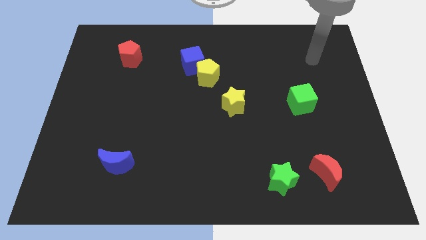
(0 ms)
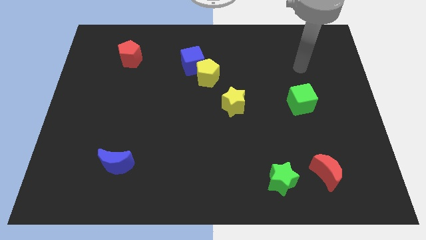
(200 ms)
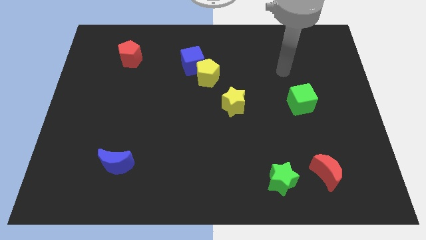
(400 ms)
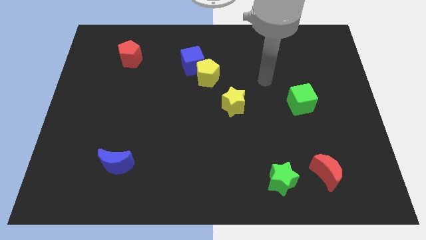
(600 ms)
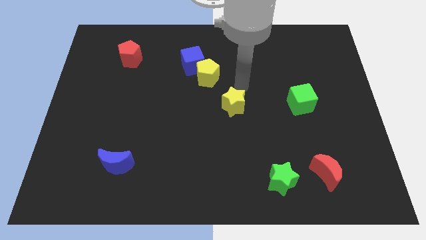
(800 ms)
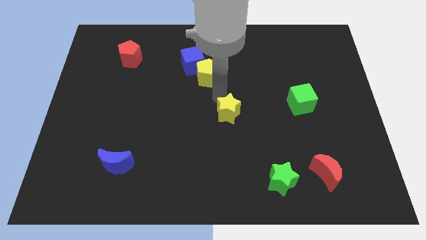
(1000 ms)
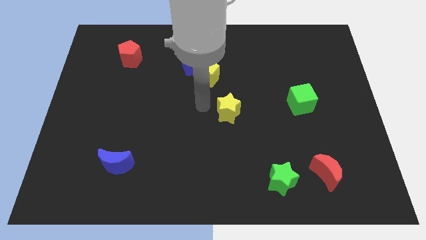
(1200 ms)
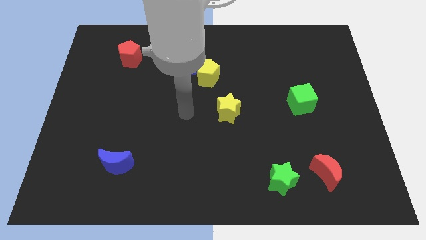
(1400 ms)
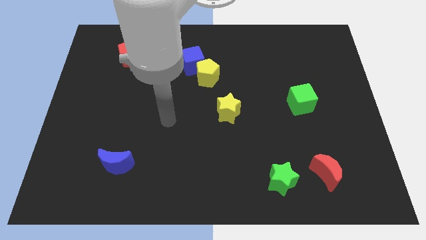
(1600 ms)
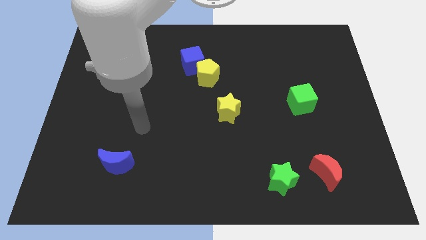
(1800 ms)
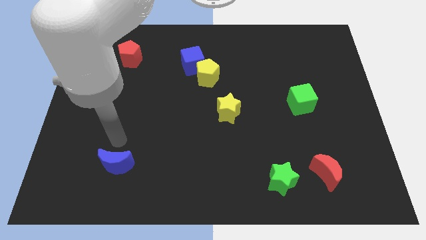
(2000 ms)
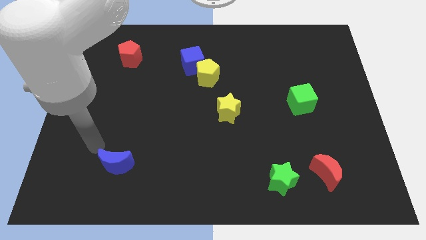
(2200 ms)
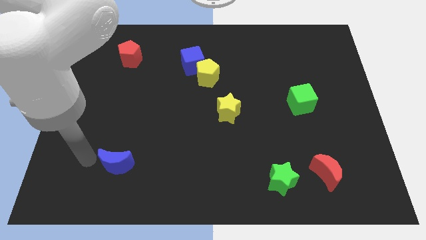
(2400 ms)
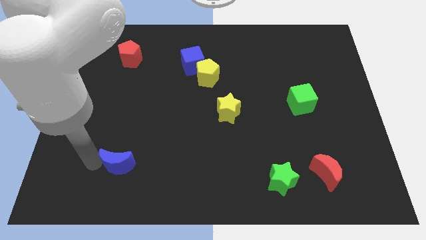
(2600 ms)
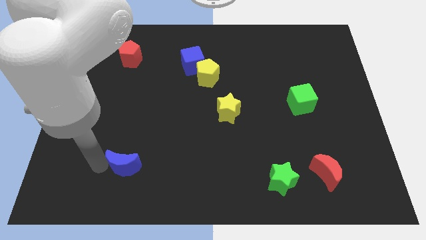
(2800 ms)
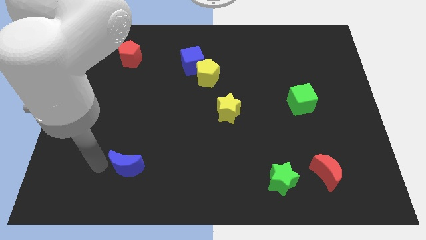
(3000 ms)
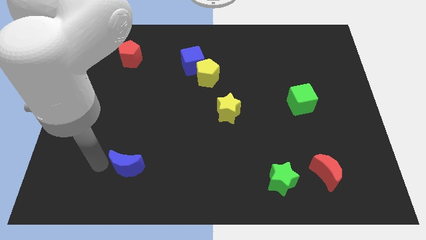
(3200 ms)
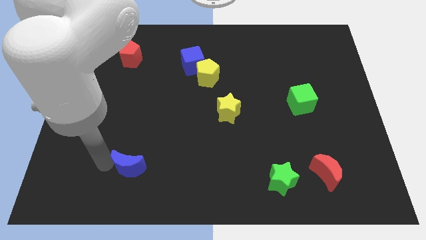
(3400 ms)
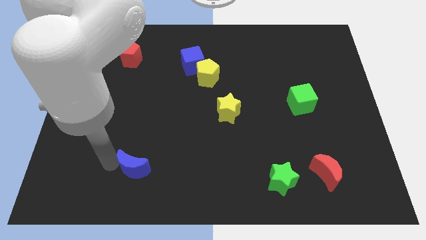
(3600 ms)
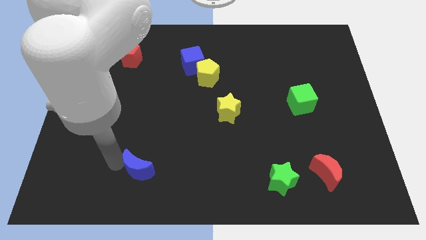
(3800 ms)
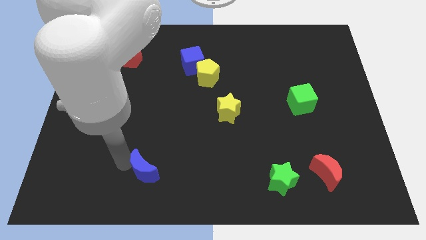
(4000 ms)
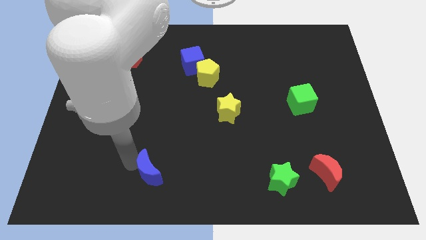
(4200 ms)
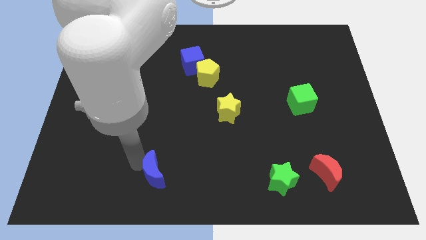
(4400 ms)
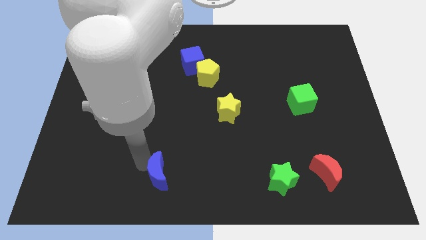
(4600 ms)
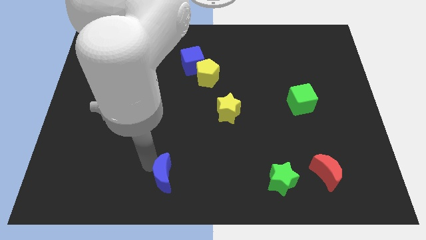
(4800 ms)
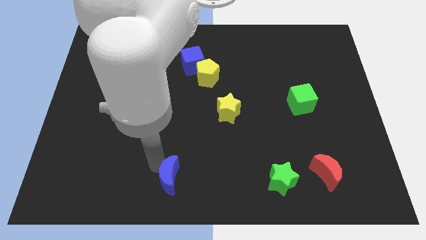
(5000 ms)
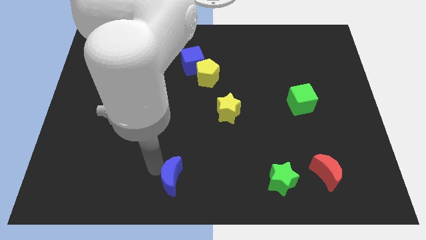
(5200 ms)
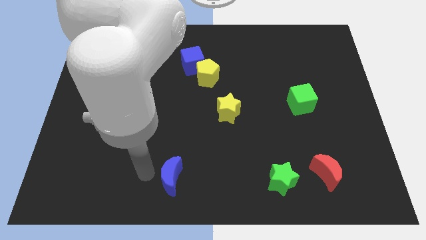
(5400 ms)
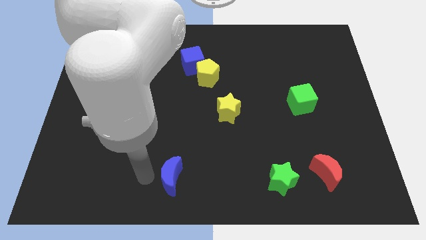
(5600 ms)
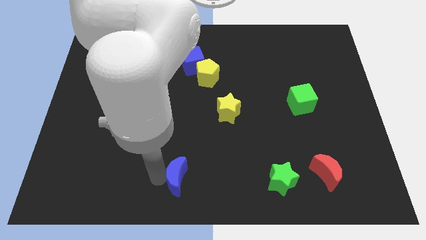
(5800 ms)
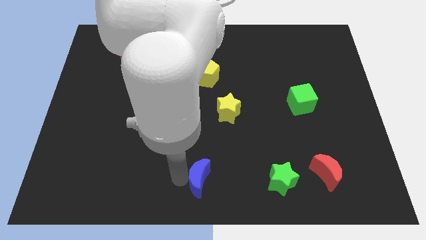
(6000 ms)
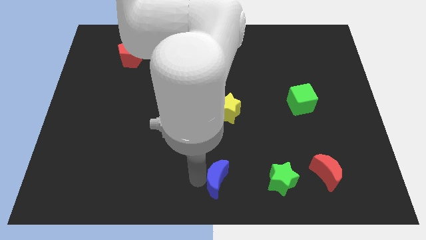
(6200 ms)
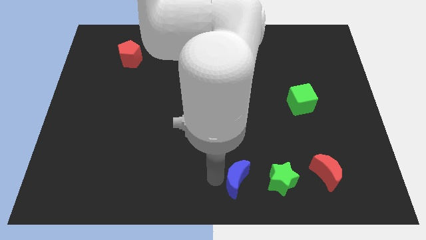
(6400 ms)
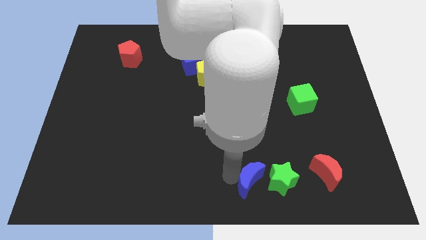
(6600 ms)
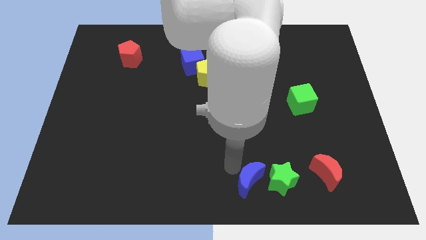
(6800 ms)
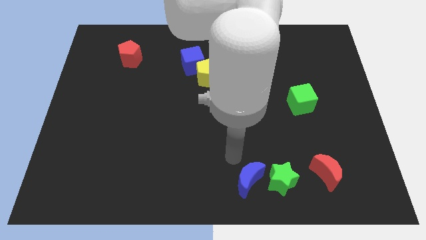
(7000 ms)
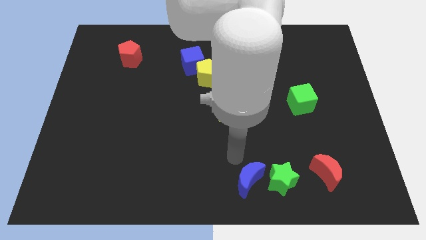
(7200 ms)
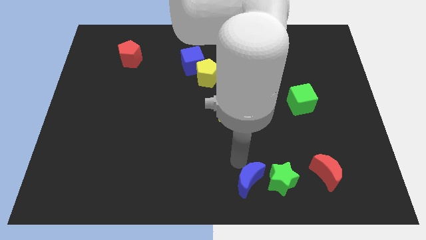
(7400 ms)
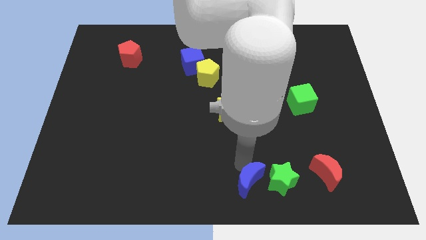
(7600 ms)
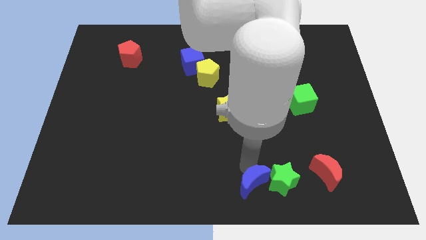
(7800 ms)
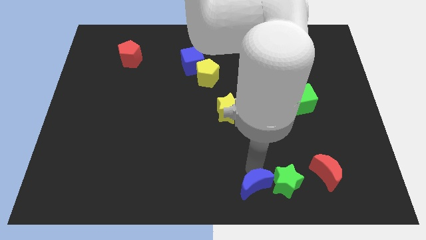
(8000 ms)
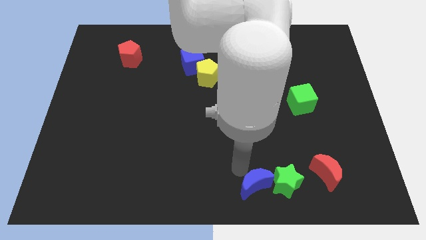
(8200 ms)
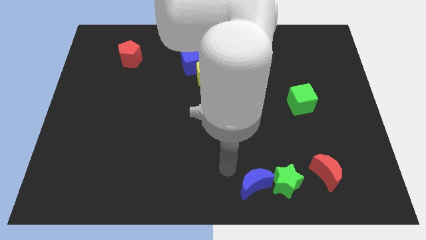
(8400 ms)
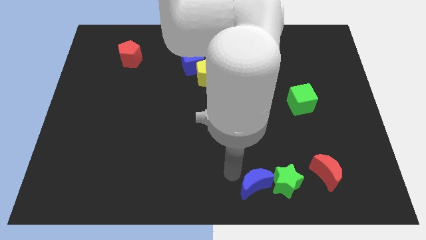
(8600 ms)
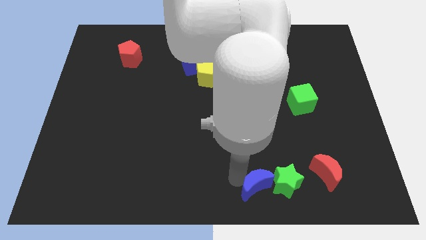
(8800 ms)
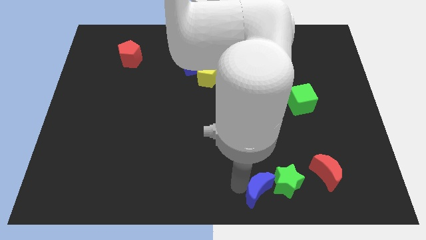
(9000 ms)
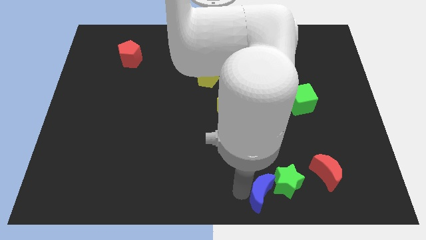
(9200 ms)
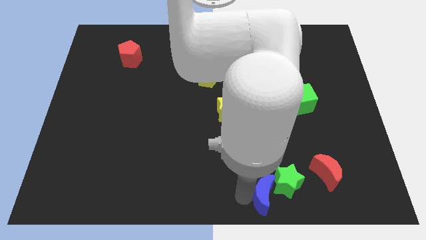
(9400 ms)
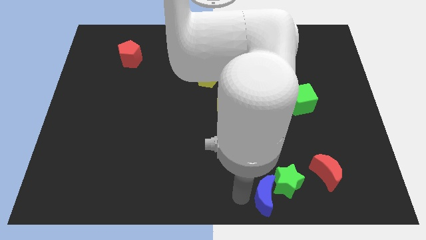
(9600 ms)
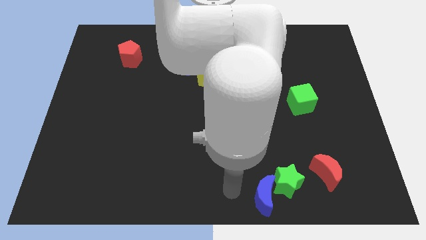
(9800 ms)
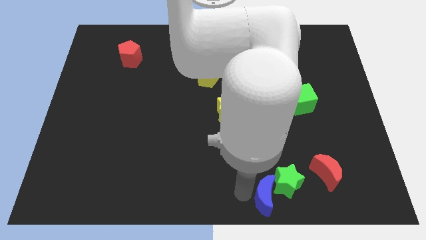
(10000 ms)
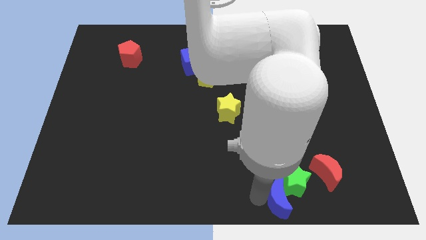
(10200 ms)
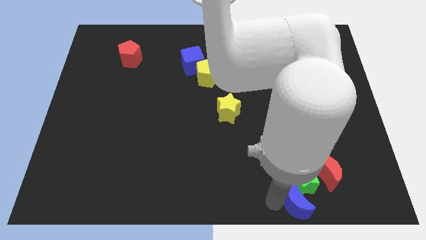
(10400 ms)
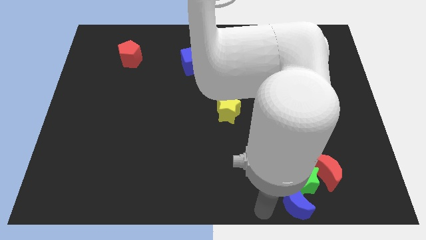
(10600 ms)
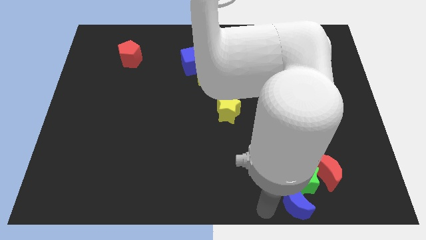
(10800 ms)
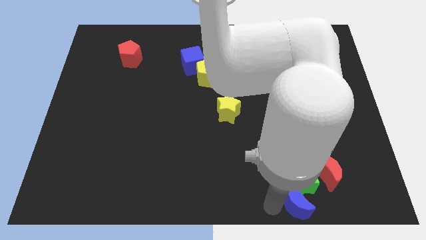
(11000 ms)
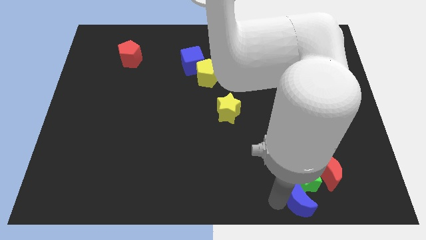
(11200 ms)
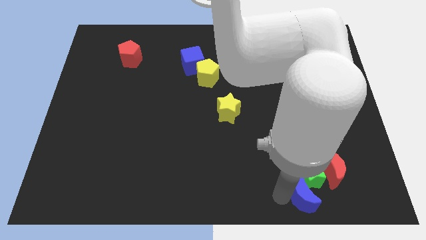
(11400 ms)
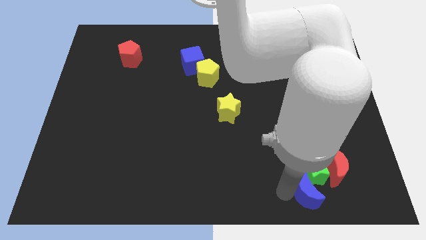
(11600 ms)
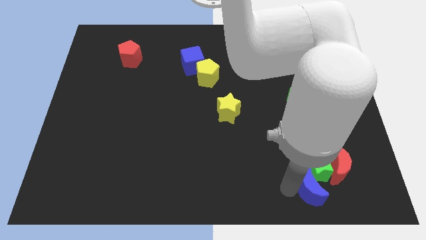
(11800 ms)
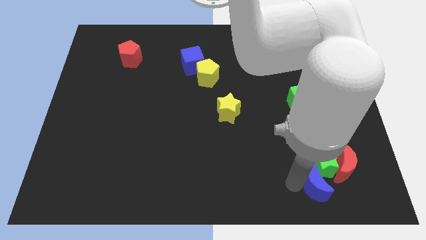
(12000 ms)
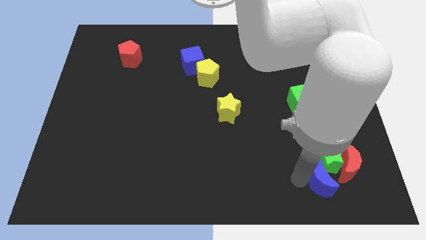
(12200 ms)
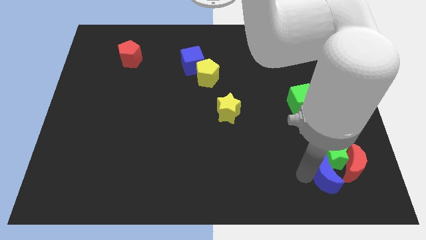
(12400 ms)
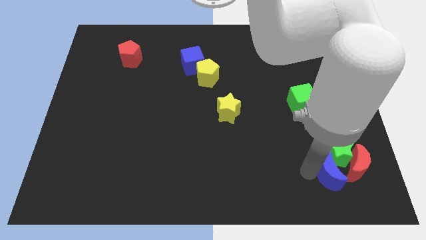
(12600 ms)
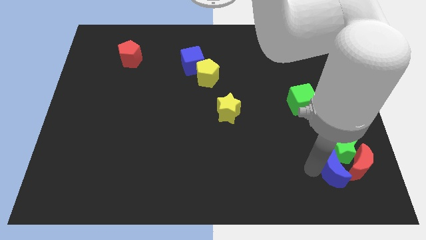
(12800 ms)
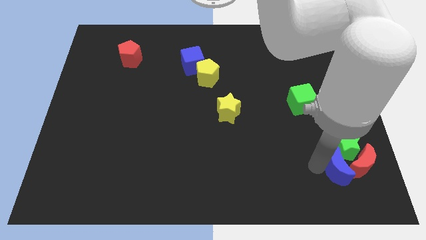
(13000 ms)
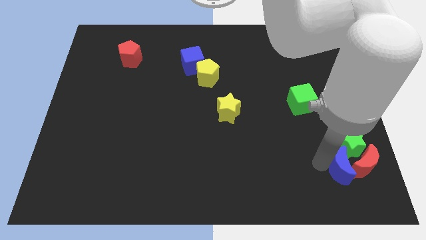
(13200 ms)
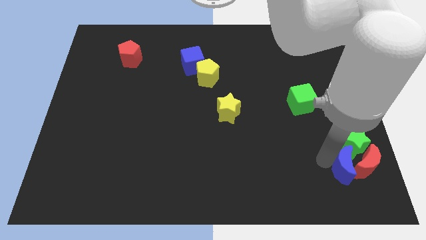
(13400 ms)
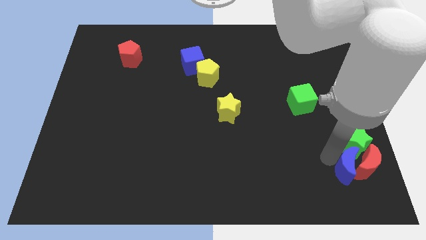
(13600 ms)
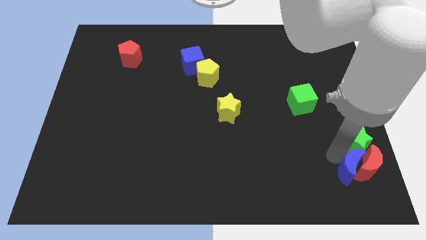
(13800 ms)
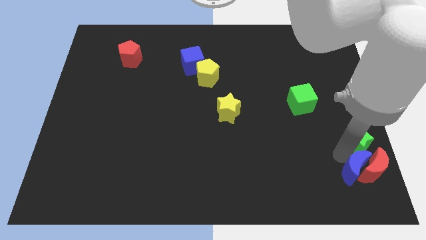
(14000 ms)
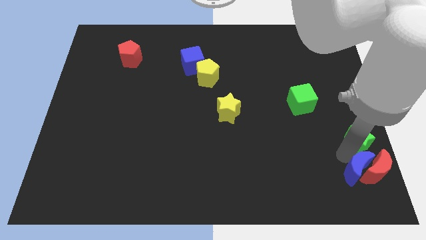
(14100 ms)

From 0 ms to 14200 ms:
move the blue moon to the bottom right
